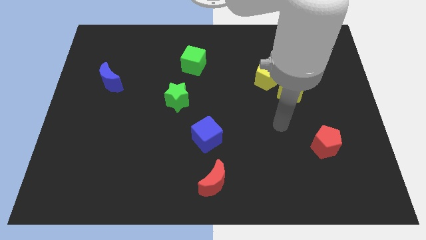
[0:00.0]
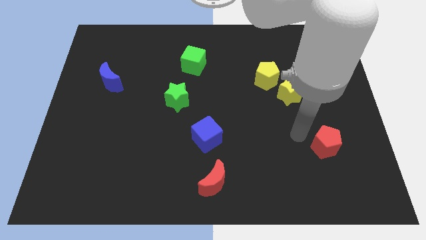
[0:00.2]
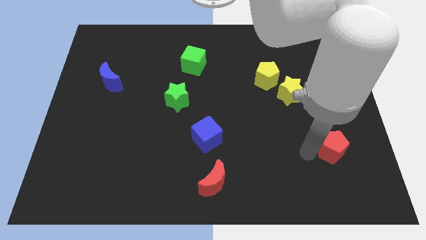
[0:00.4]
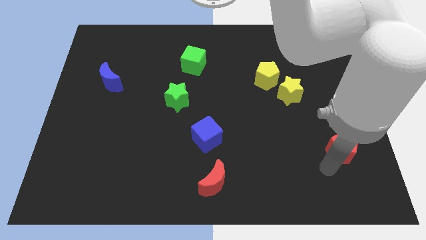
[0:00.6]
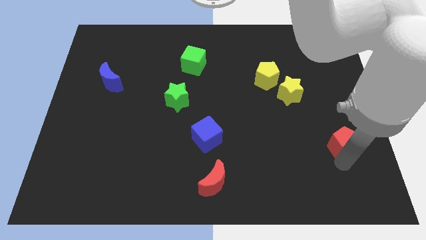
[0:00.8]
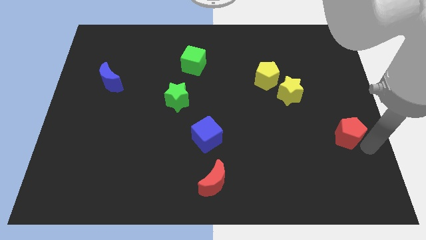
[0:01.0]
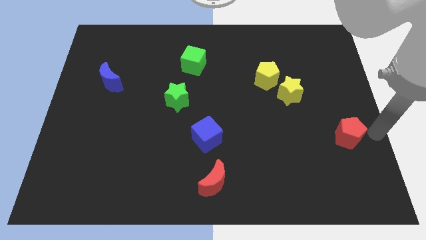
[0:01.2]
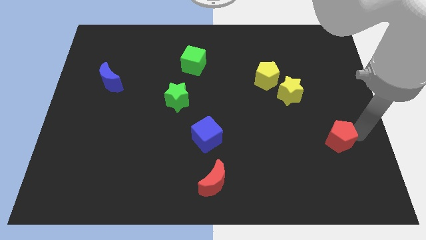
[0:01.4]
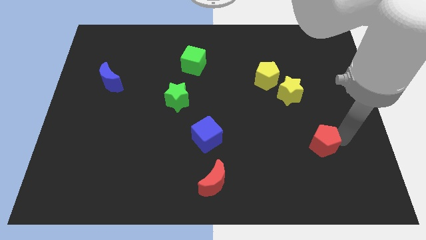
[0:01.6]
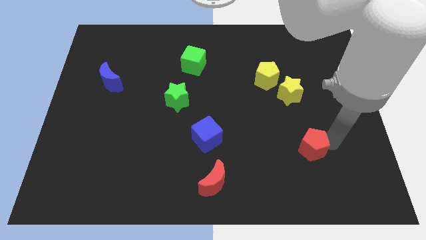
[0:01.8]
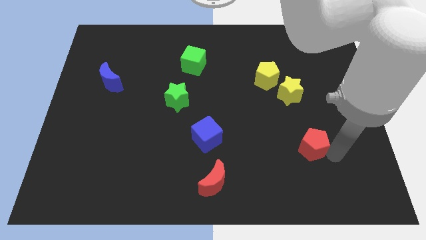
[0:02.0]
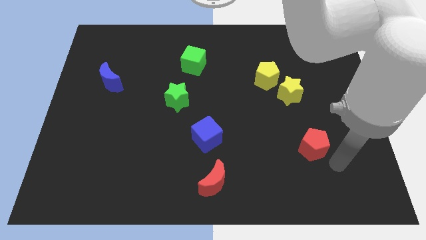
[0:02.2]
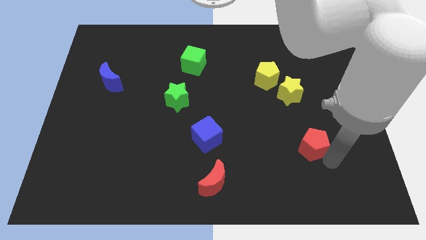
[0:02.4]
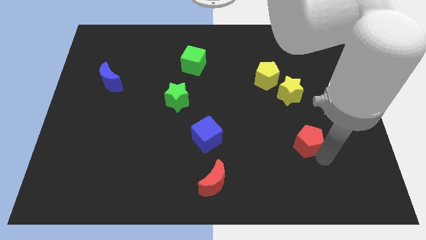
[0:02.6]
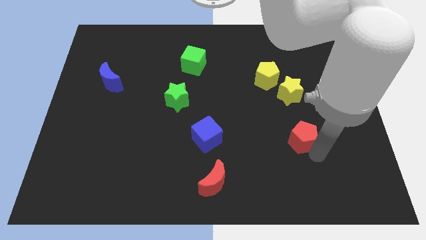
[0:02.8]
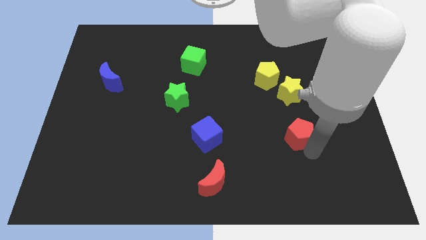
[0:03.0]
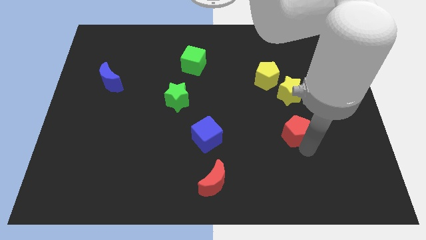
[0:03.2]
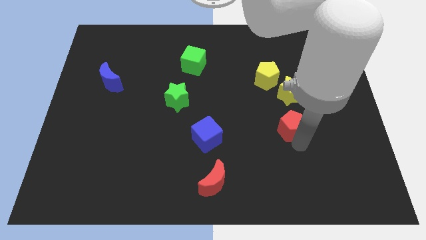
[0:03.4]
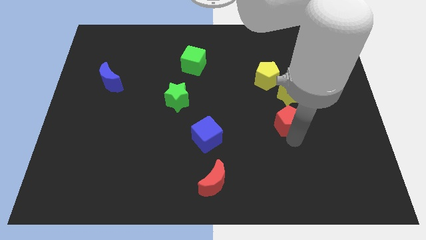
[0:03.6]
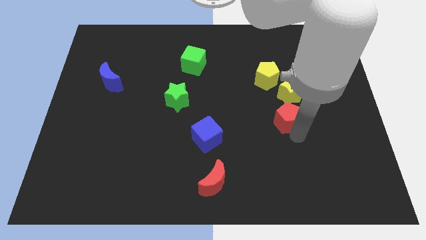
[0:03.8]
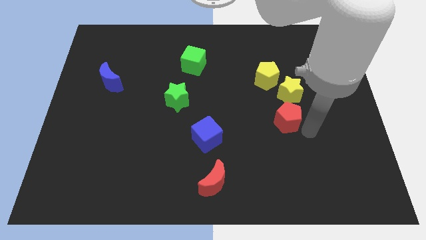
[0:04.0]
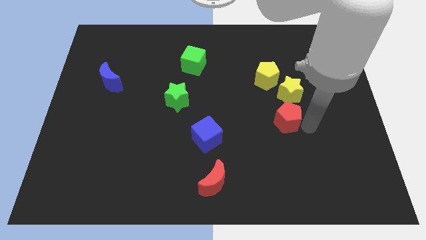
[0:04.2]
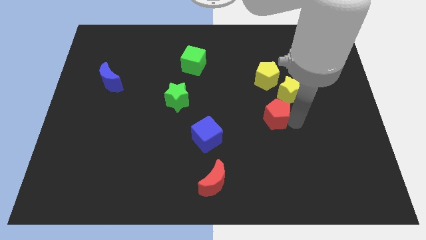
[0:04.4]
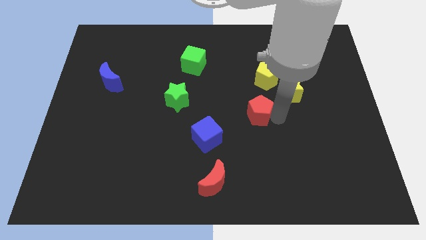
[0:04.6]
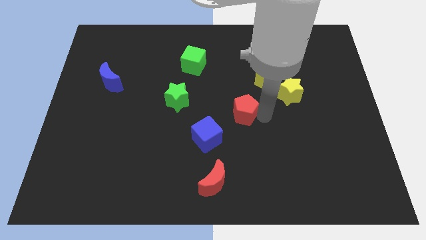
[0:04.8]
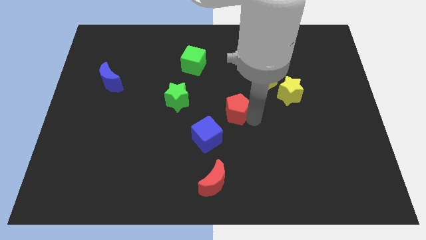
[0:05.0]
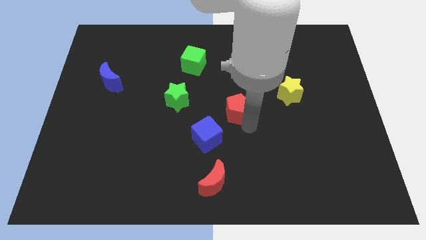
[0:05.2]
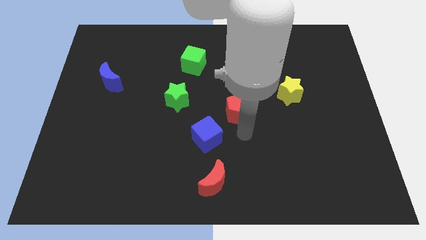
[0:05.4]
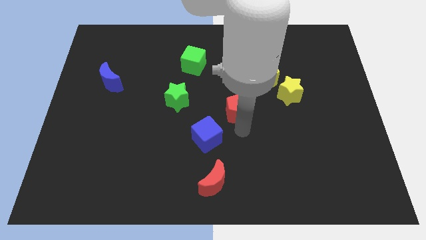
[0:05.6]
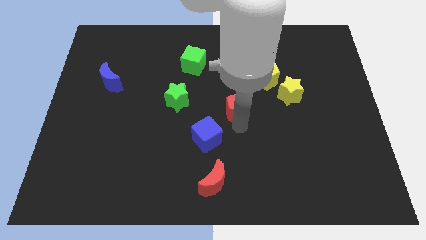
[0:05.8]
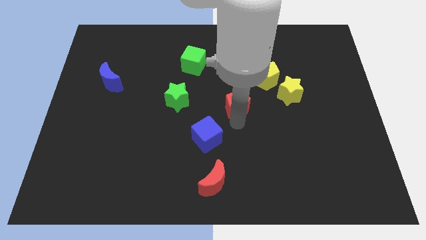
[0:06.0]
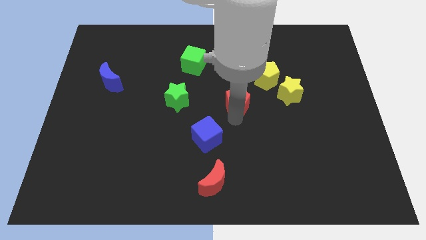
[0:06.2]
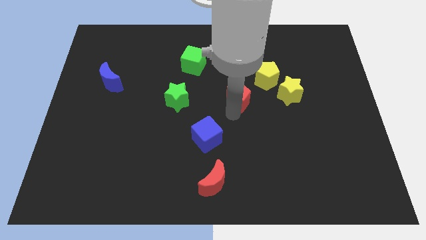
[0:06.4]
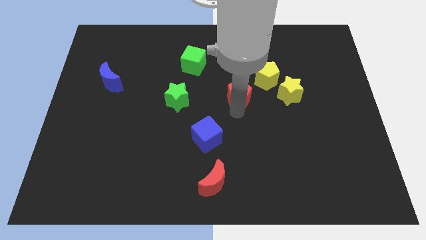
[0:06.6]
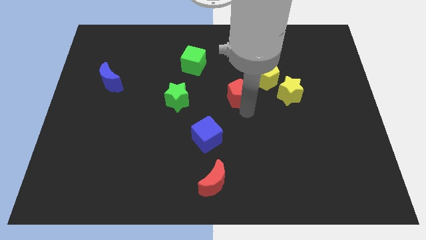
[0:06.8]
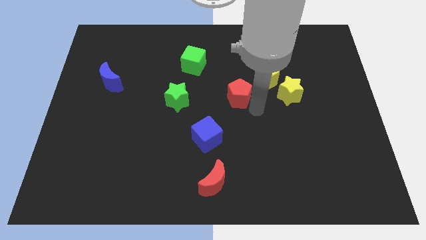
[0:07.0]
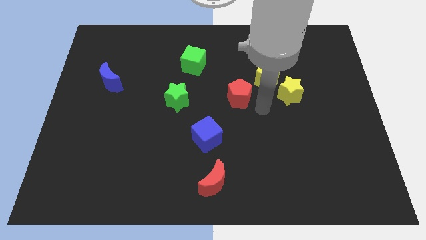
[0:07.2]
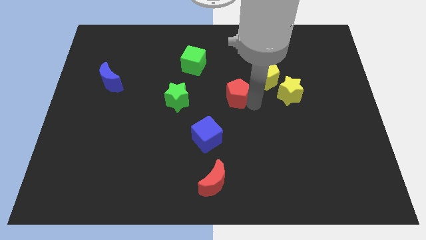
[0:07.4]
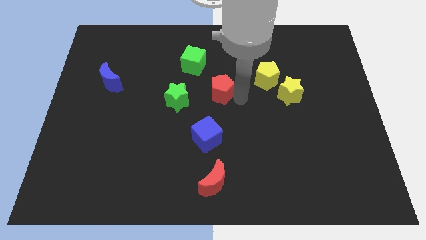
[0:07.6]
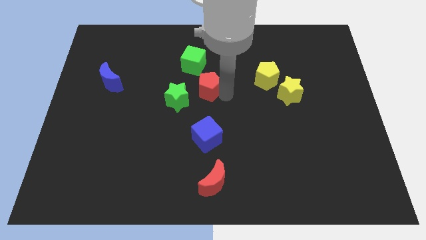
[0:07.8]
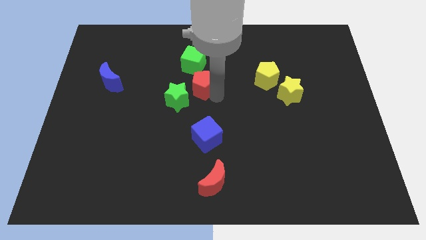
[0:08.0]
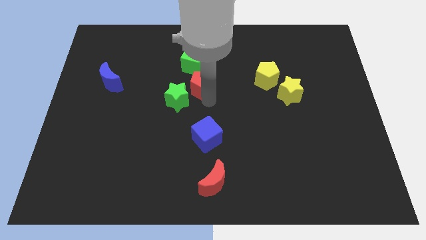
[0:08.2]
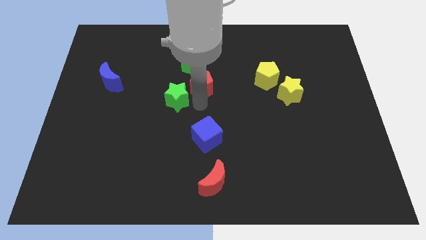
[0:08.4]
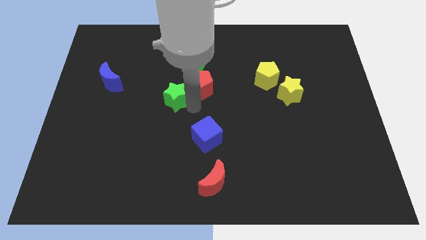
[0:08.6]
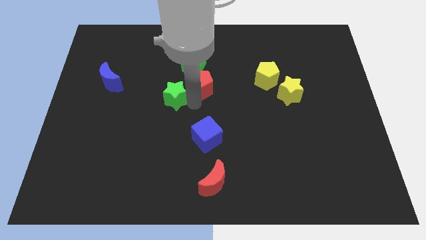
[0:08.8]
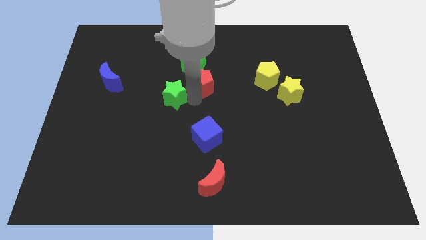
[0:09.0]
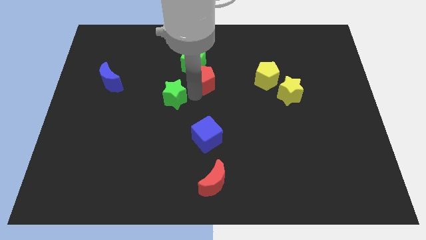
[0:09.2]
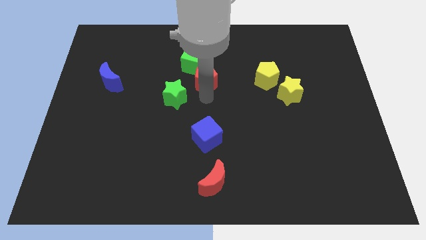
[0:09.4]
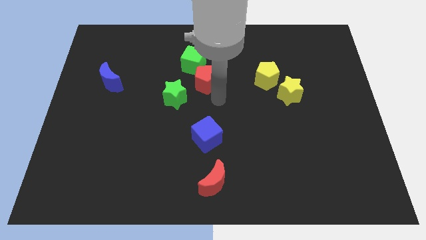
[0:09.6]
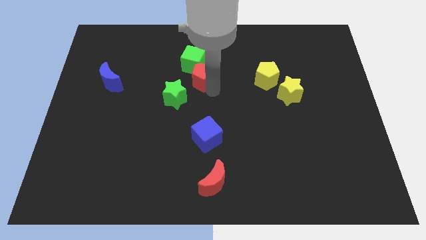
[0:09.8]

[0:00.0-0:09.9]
move the red pentagon to the green cube

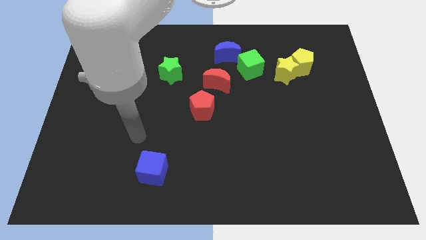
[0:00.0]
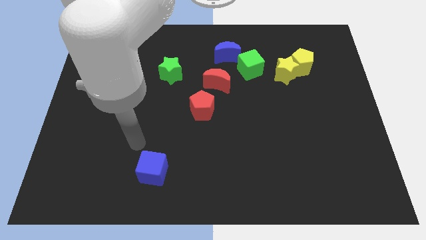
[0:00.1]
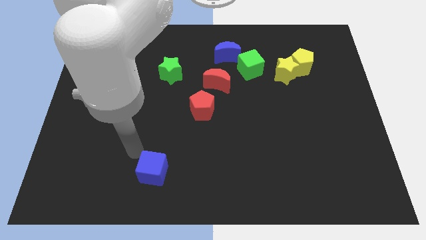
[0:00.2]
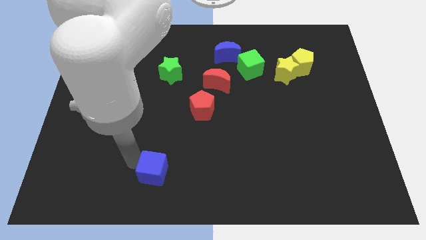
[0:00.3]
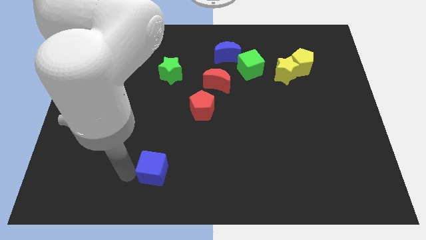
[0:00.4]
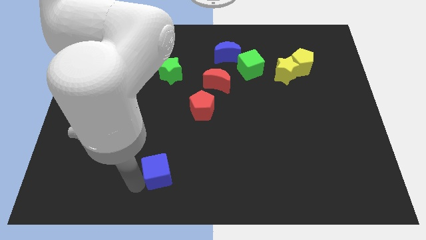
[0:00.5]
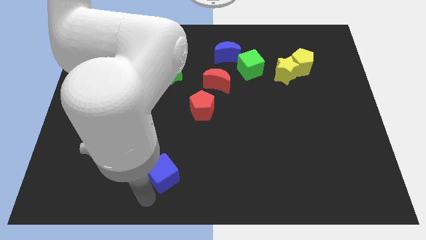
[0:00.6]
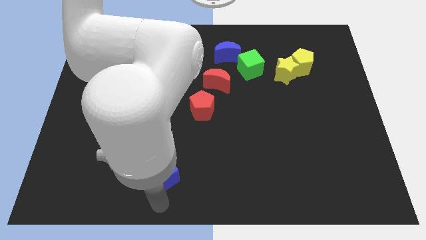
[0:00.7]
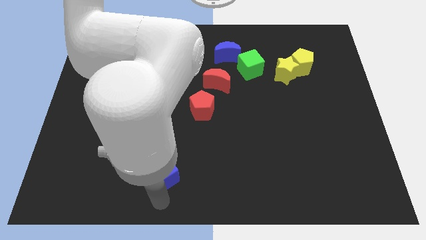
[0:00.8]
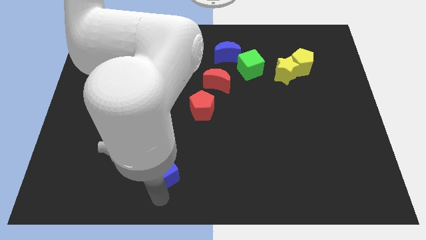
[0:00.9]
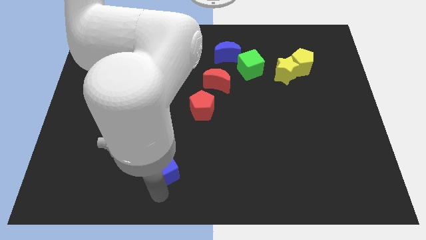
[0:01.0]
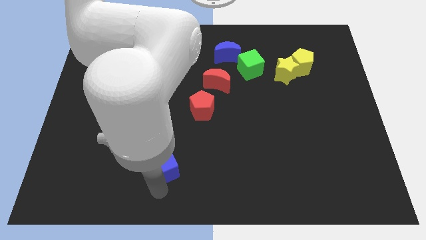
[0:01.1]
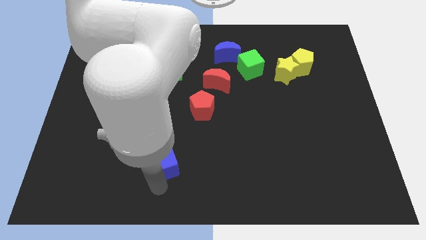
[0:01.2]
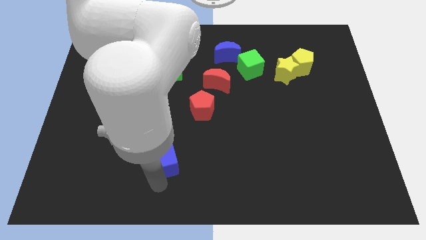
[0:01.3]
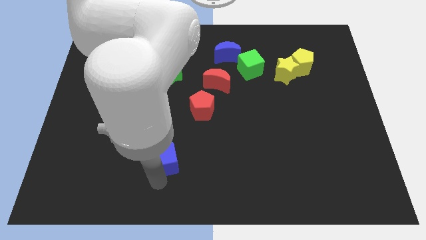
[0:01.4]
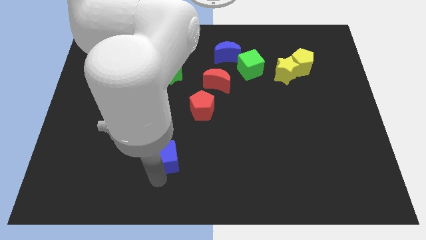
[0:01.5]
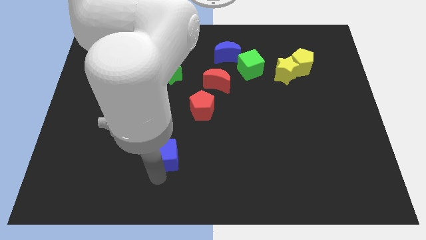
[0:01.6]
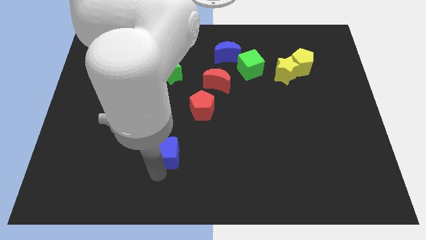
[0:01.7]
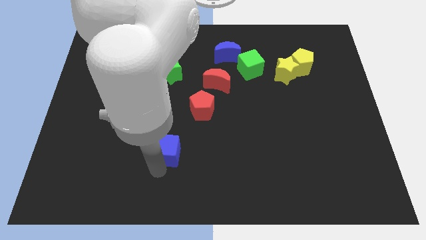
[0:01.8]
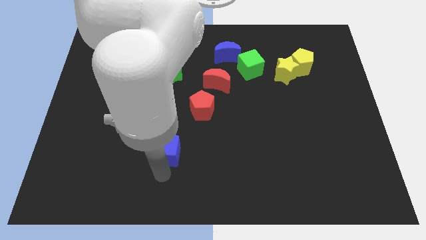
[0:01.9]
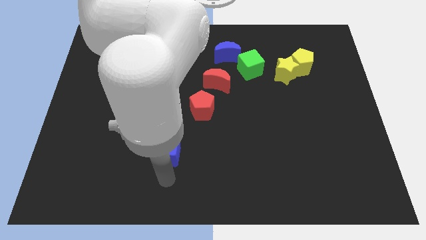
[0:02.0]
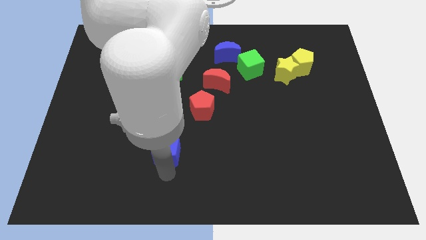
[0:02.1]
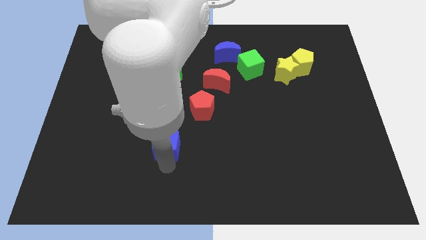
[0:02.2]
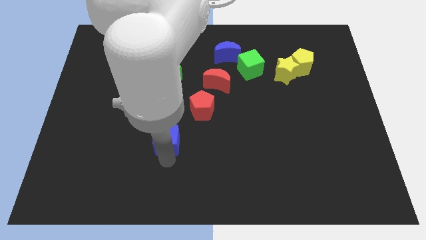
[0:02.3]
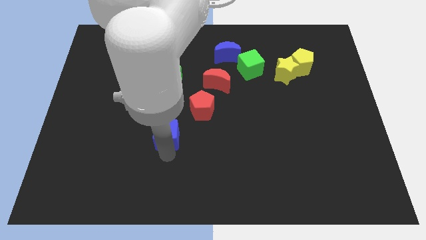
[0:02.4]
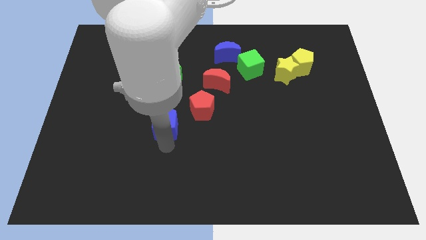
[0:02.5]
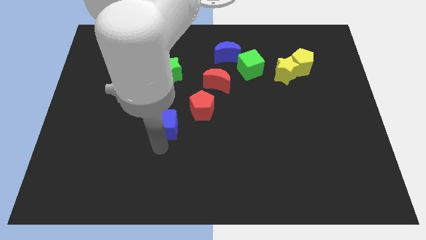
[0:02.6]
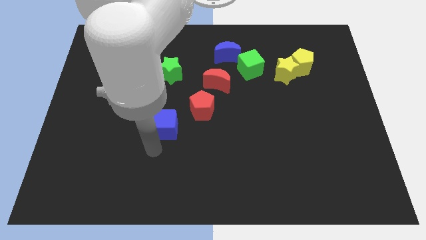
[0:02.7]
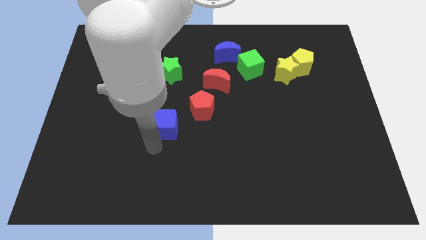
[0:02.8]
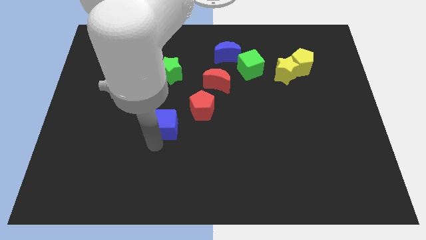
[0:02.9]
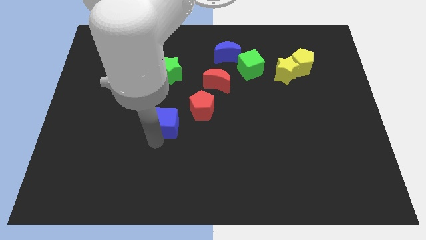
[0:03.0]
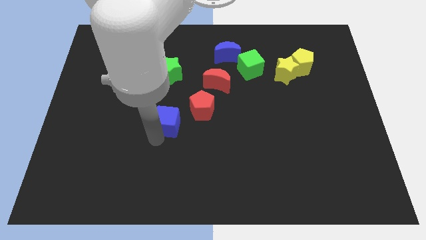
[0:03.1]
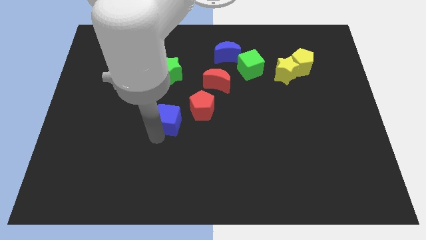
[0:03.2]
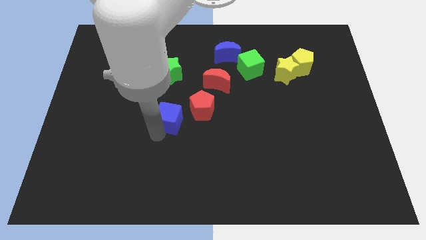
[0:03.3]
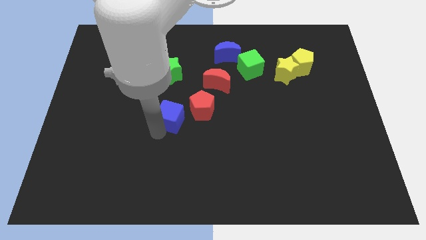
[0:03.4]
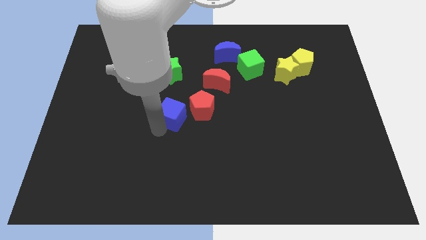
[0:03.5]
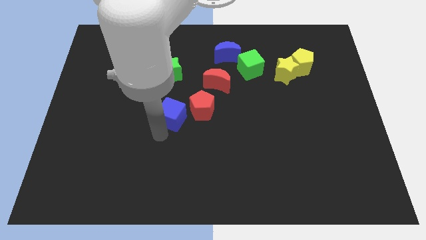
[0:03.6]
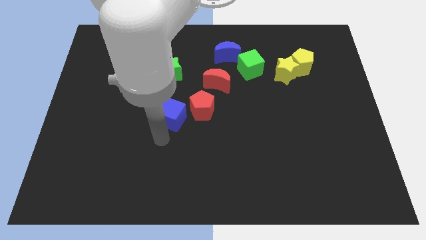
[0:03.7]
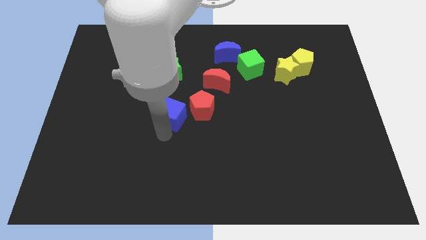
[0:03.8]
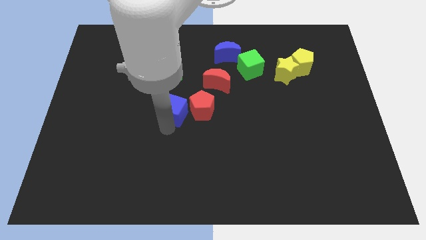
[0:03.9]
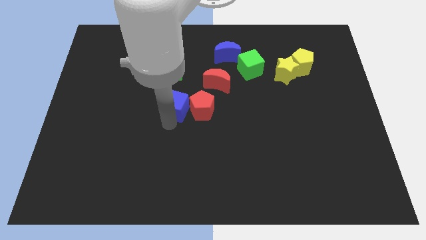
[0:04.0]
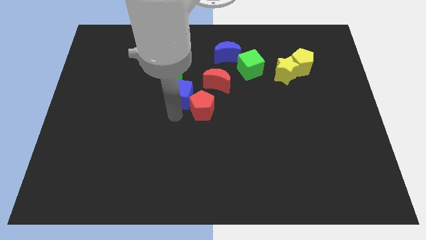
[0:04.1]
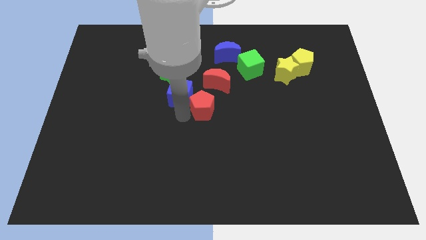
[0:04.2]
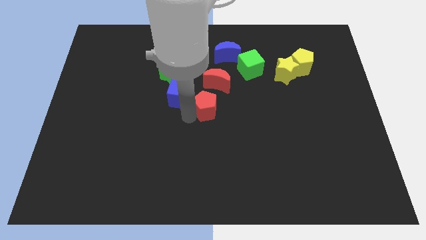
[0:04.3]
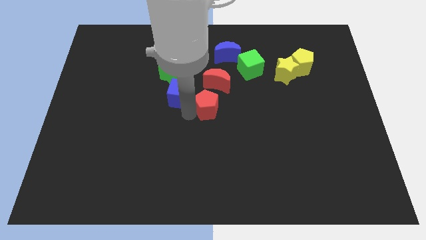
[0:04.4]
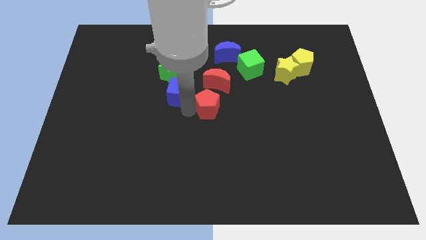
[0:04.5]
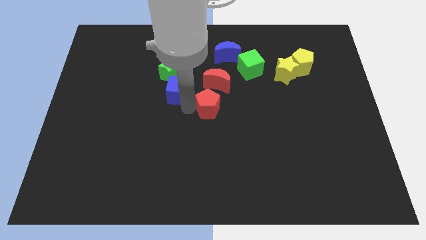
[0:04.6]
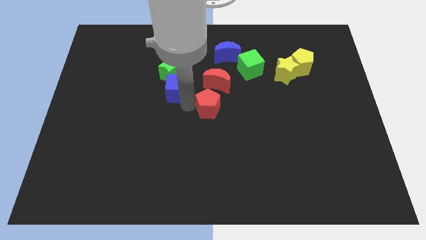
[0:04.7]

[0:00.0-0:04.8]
slide the blue cube towards the green star
